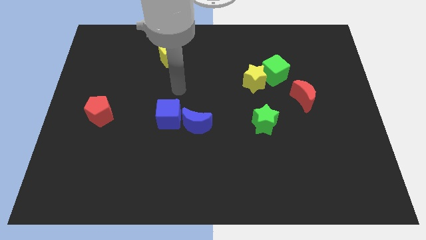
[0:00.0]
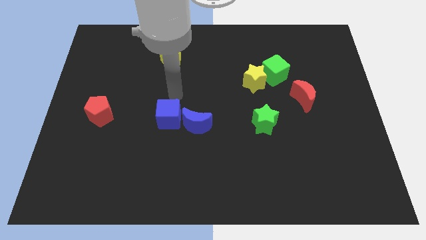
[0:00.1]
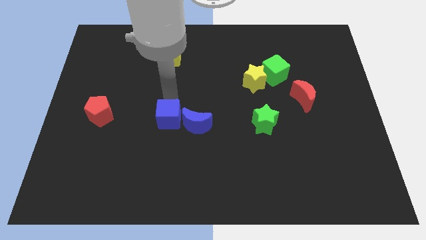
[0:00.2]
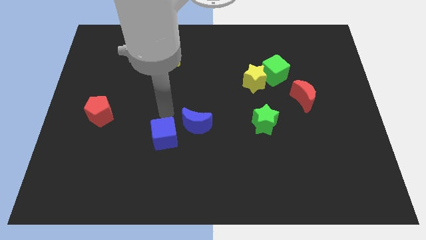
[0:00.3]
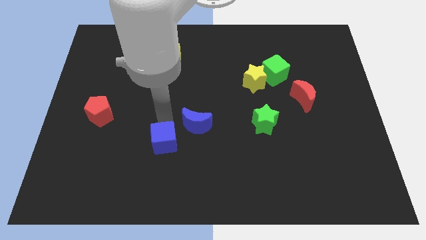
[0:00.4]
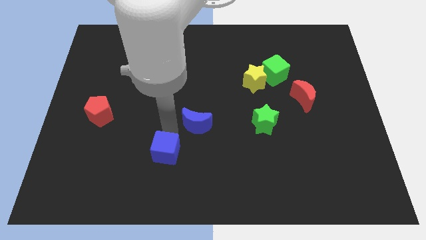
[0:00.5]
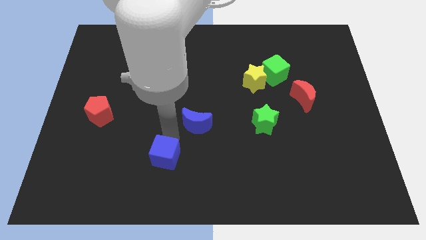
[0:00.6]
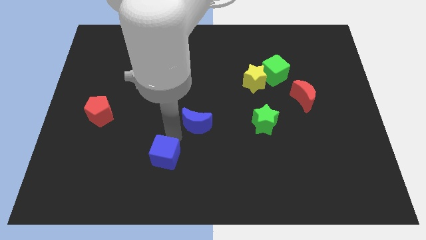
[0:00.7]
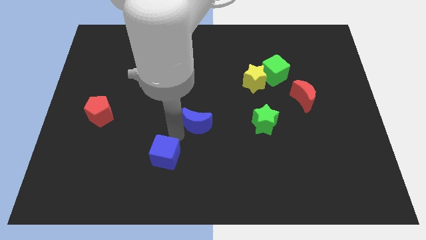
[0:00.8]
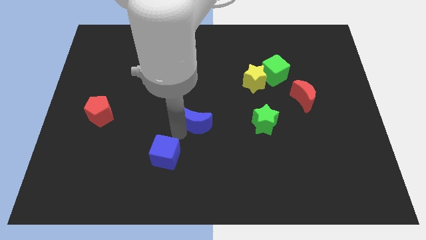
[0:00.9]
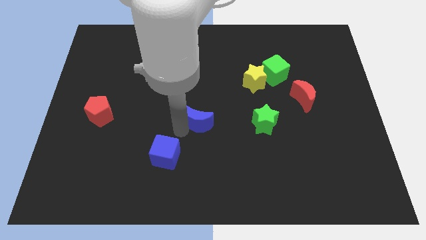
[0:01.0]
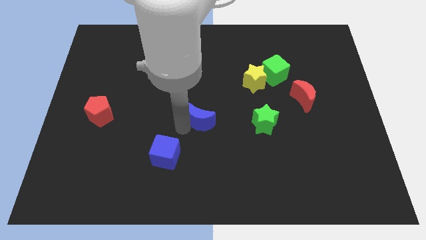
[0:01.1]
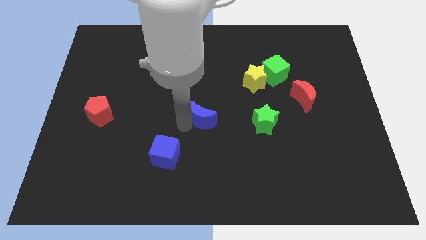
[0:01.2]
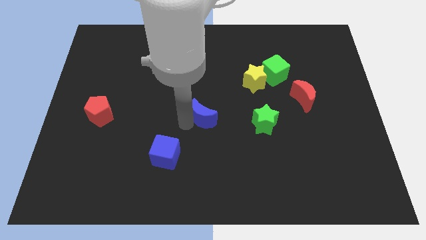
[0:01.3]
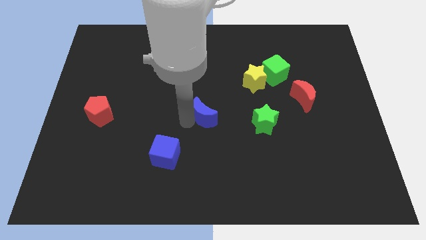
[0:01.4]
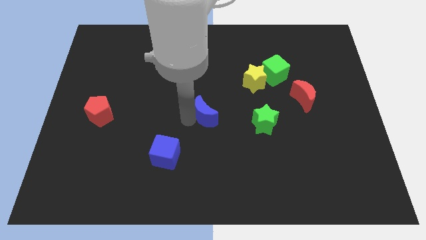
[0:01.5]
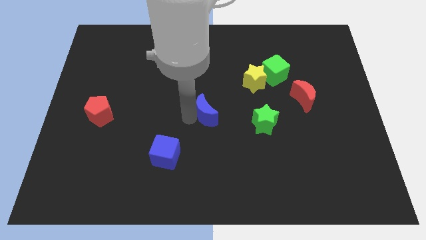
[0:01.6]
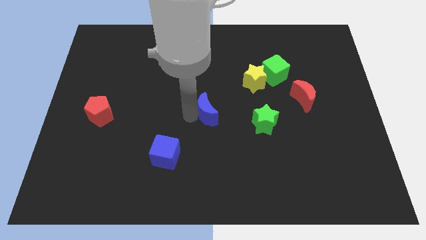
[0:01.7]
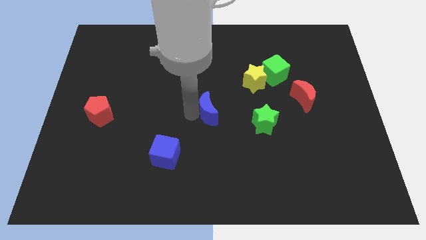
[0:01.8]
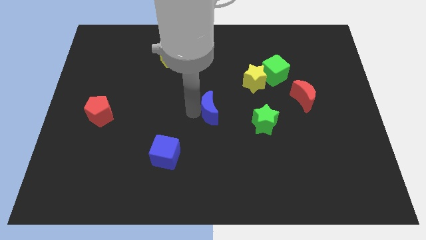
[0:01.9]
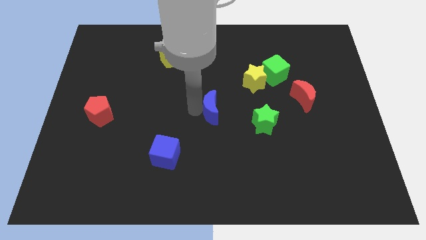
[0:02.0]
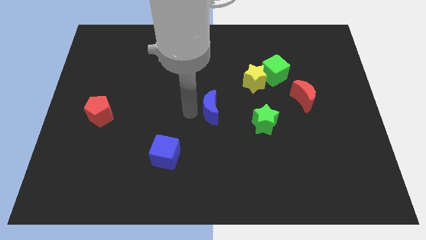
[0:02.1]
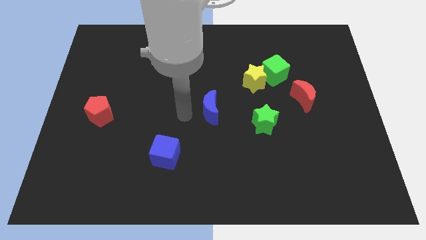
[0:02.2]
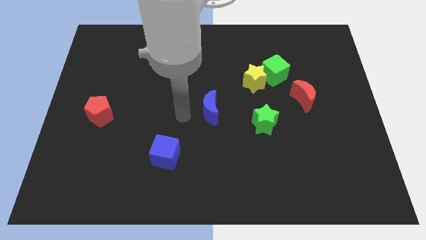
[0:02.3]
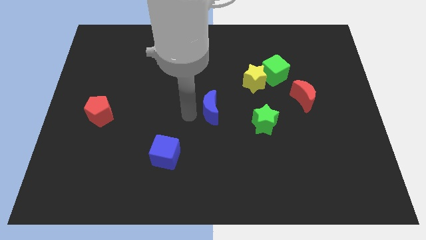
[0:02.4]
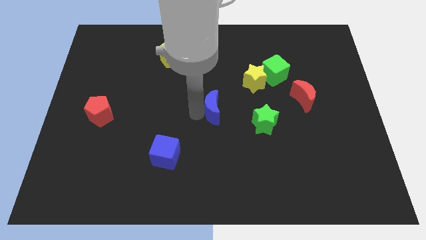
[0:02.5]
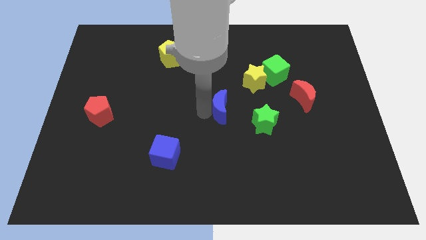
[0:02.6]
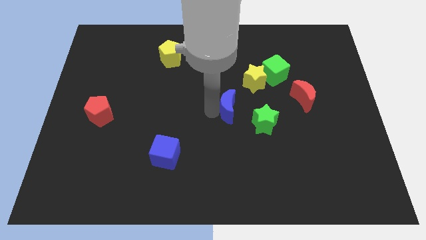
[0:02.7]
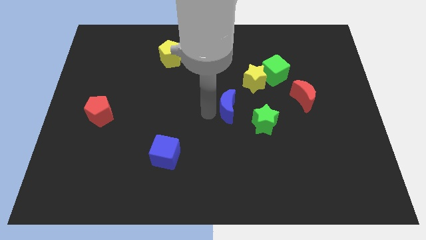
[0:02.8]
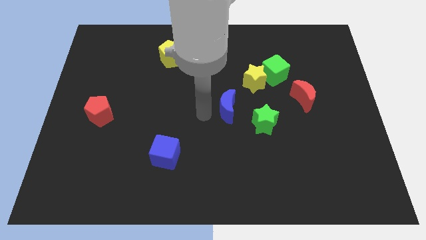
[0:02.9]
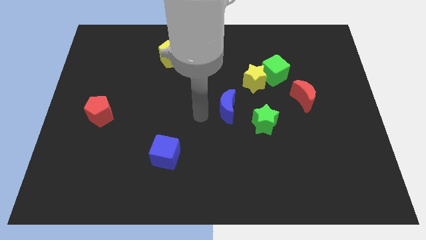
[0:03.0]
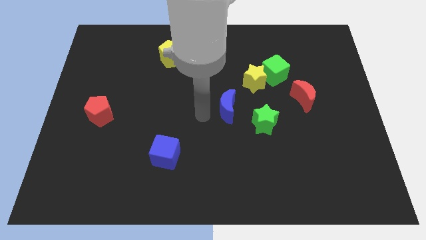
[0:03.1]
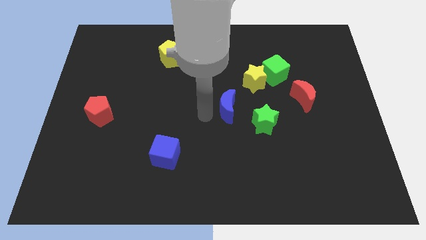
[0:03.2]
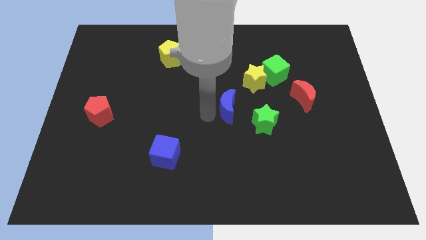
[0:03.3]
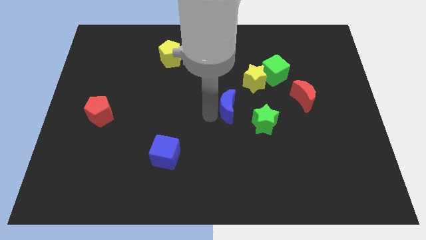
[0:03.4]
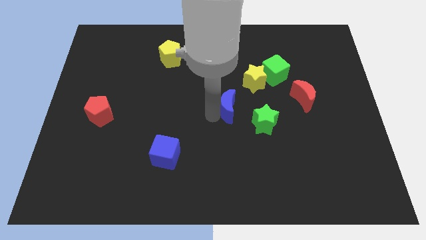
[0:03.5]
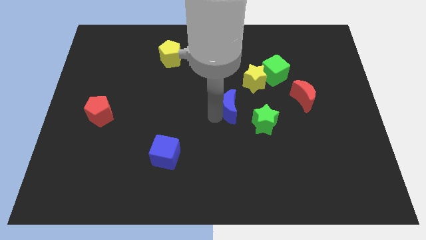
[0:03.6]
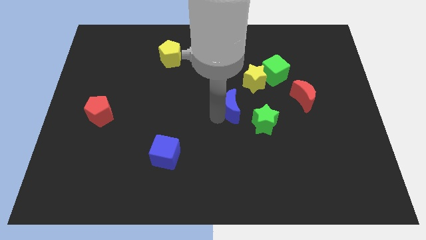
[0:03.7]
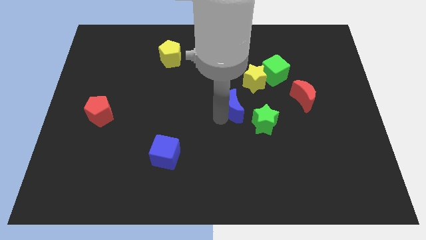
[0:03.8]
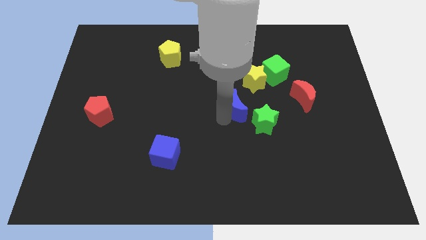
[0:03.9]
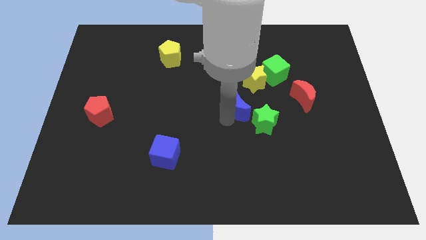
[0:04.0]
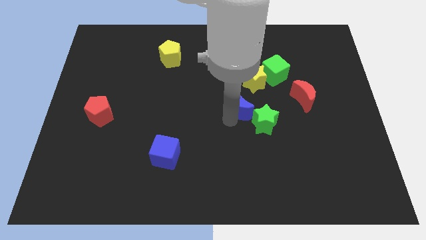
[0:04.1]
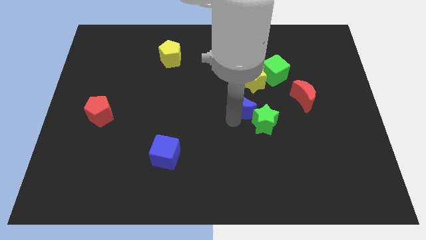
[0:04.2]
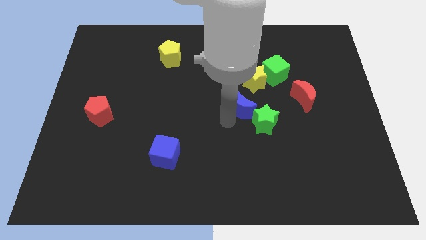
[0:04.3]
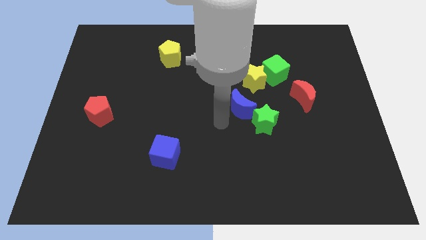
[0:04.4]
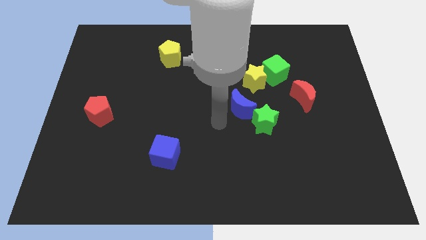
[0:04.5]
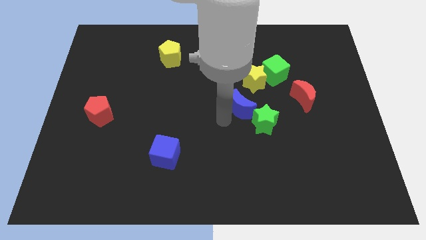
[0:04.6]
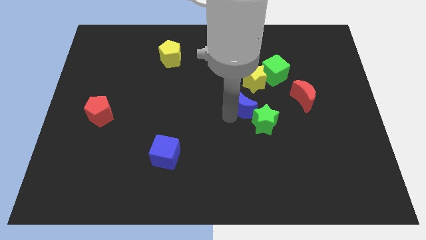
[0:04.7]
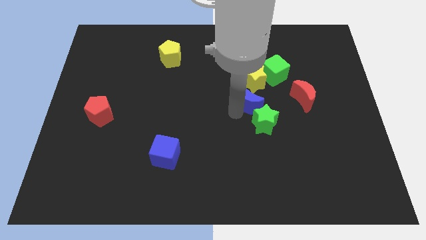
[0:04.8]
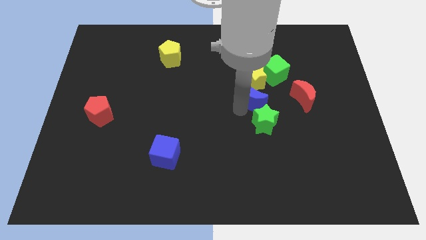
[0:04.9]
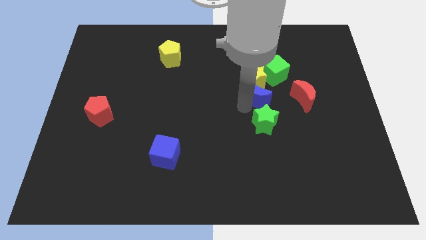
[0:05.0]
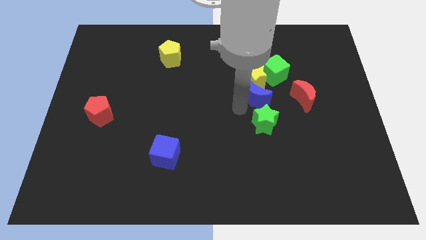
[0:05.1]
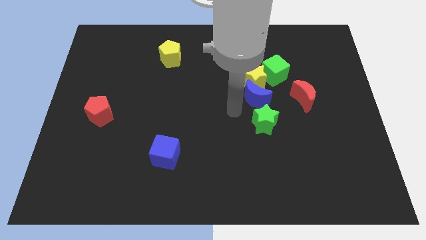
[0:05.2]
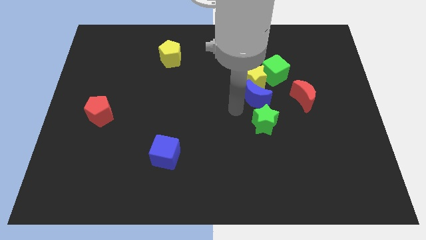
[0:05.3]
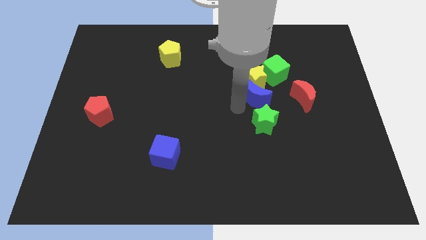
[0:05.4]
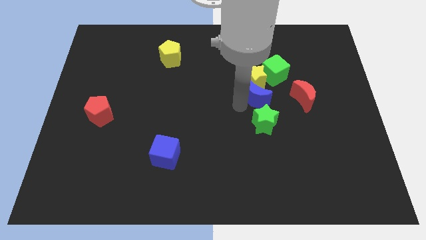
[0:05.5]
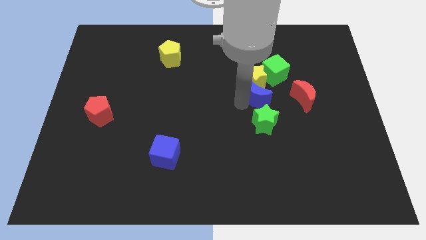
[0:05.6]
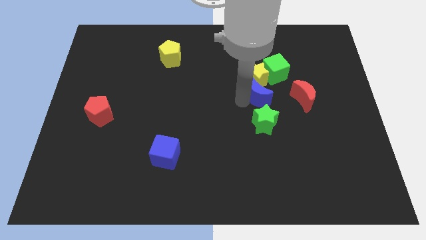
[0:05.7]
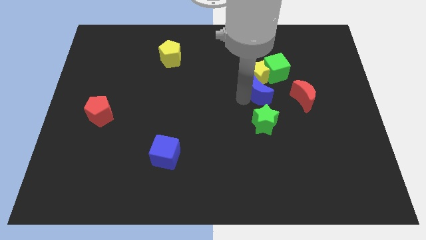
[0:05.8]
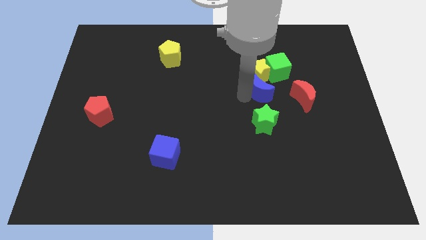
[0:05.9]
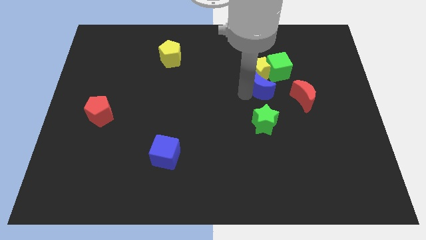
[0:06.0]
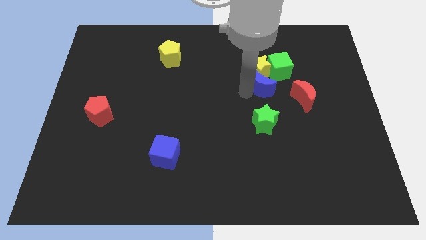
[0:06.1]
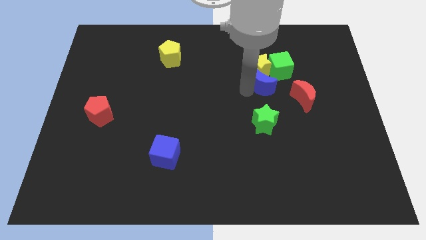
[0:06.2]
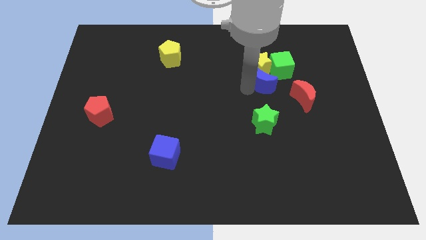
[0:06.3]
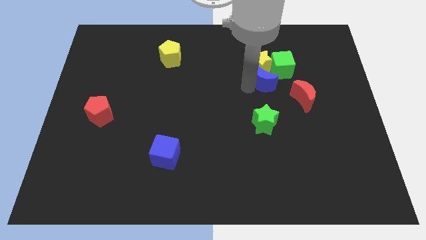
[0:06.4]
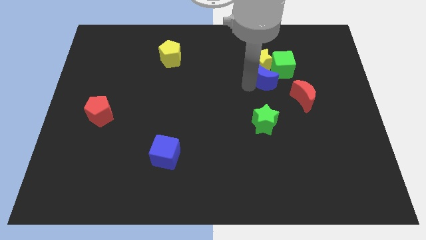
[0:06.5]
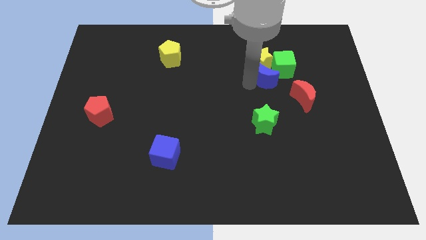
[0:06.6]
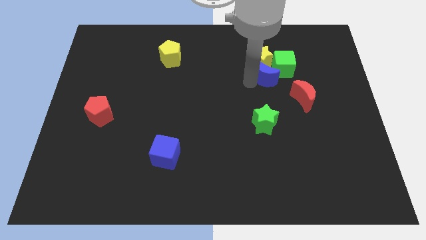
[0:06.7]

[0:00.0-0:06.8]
move the blue moon next to the green cube

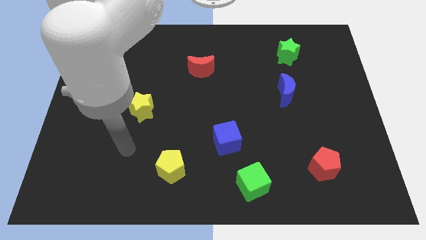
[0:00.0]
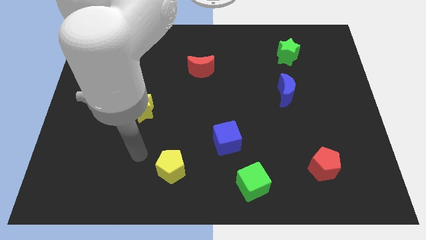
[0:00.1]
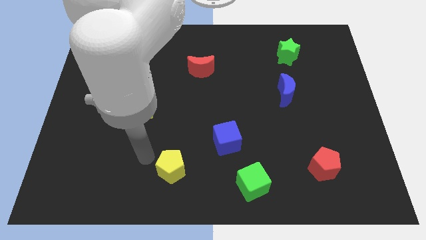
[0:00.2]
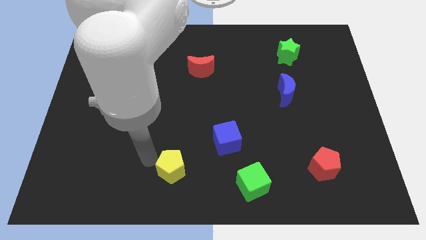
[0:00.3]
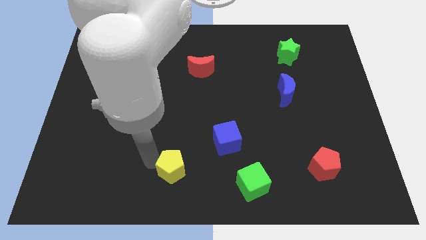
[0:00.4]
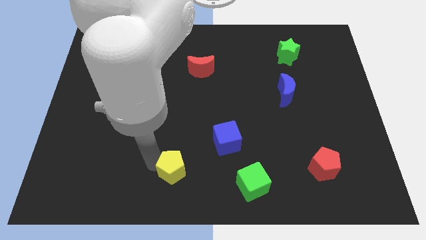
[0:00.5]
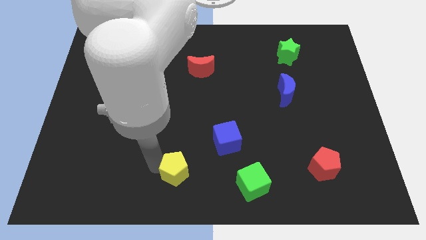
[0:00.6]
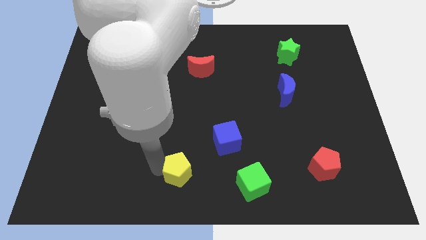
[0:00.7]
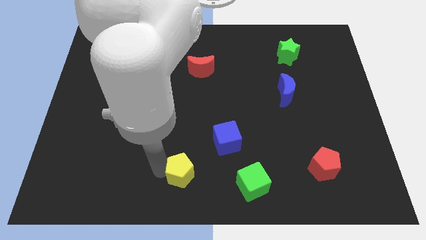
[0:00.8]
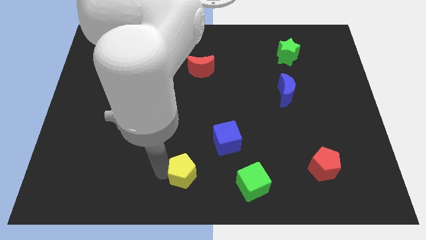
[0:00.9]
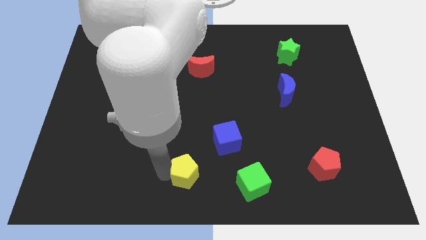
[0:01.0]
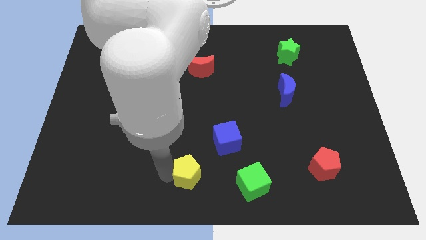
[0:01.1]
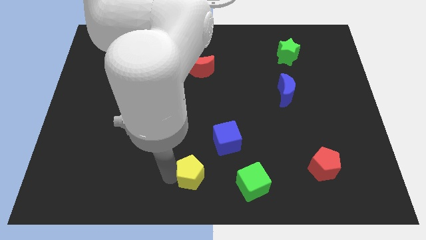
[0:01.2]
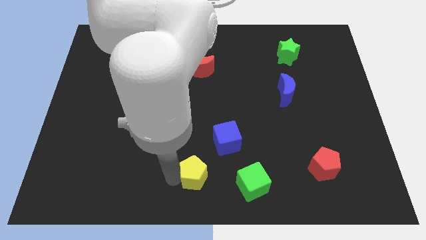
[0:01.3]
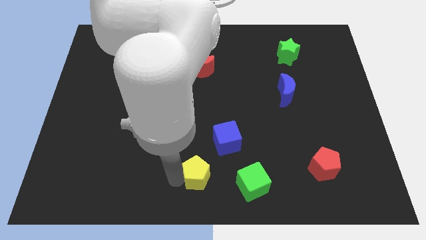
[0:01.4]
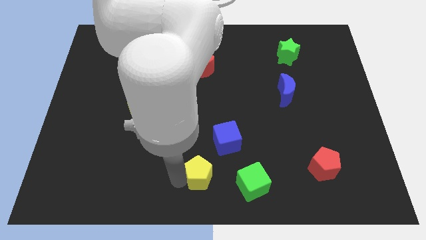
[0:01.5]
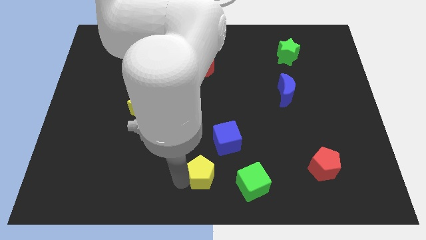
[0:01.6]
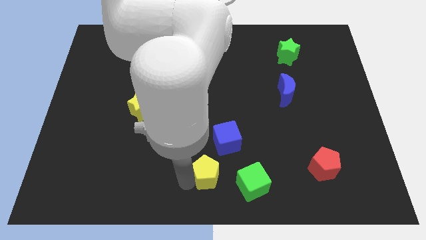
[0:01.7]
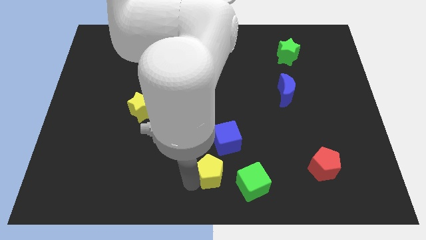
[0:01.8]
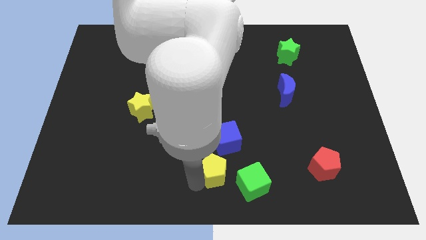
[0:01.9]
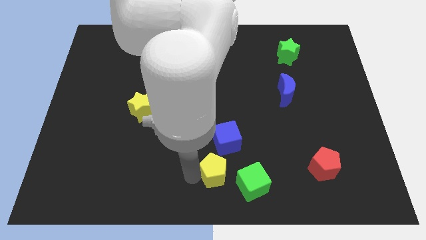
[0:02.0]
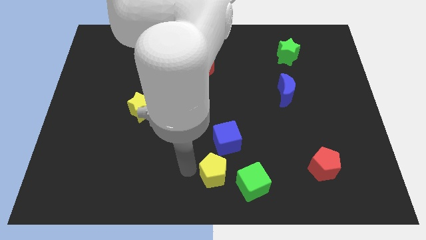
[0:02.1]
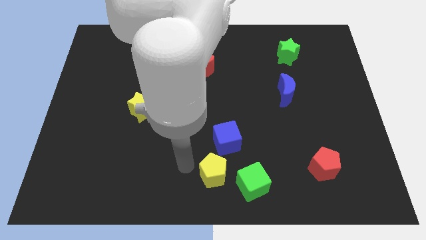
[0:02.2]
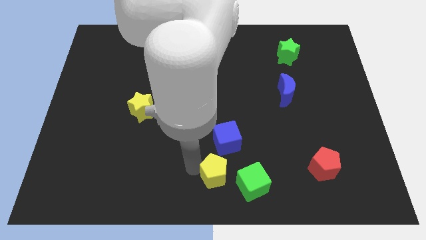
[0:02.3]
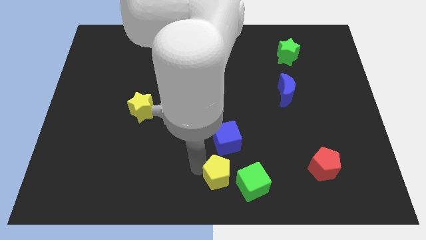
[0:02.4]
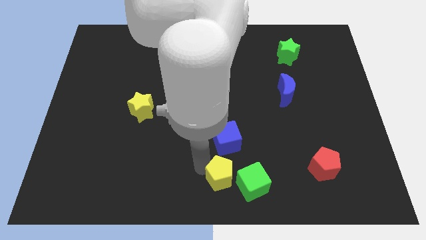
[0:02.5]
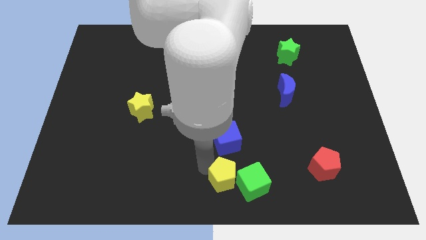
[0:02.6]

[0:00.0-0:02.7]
slide the yellow pentagon close to the green cube
